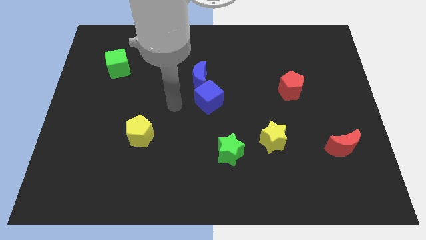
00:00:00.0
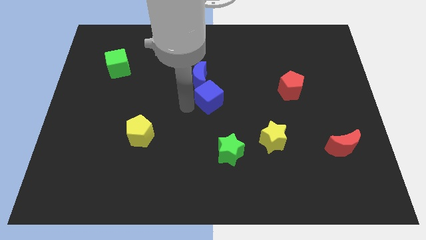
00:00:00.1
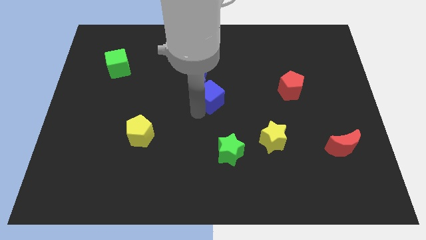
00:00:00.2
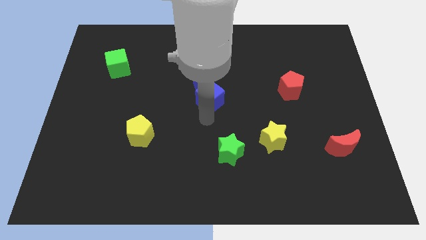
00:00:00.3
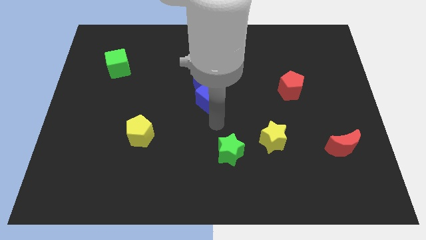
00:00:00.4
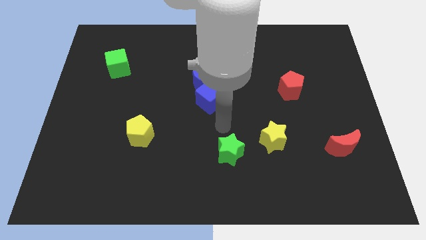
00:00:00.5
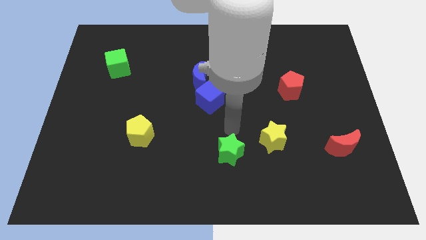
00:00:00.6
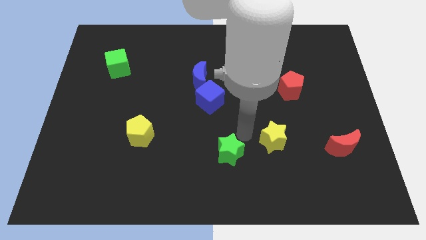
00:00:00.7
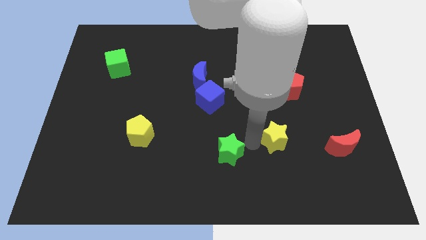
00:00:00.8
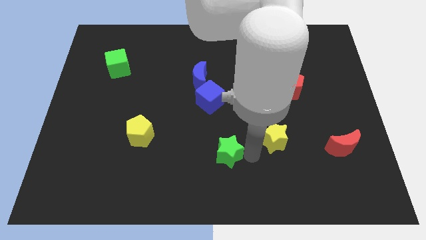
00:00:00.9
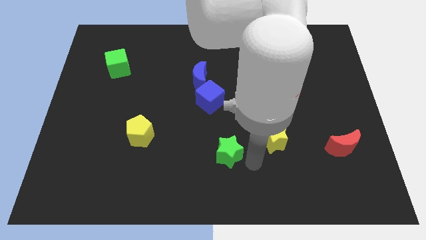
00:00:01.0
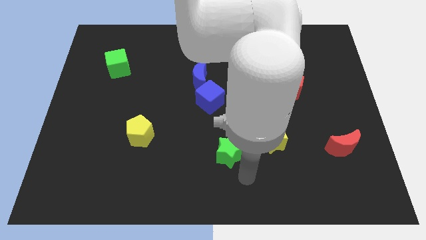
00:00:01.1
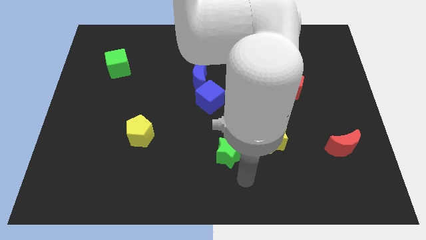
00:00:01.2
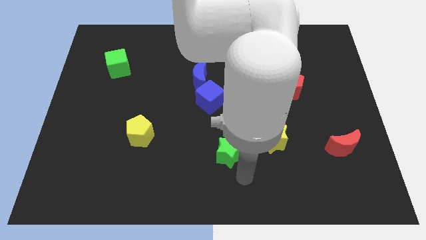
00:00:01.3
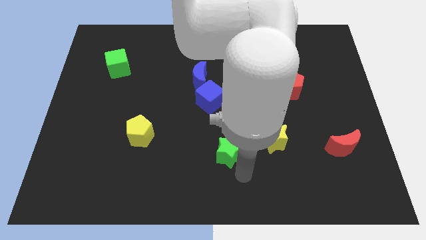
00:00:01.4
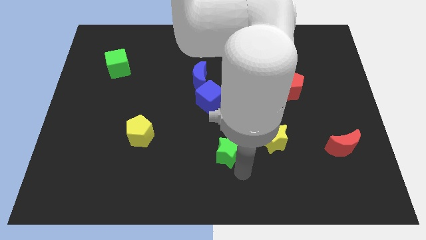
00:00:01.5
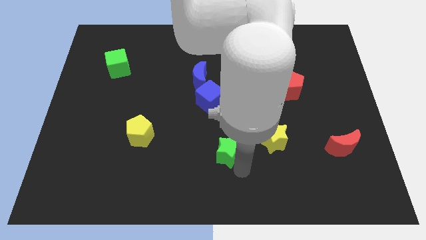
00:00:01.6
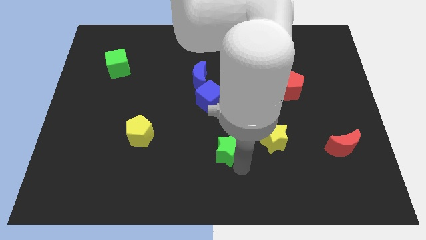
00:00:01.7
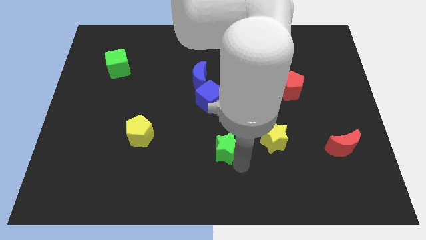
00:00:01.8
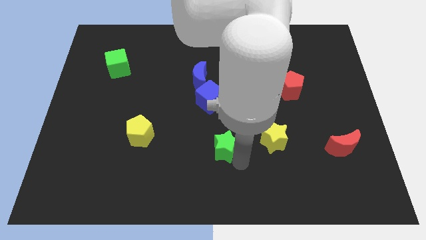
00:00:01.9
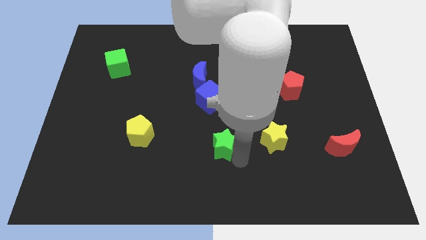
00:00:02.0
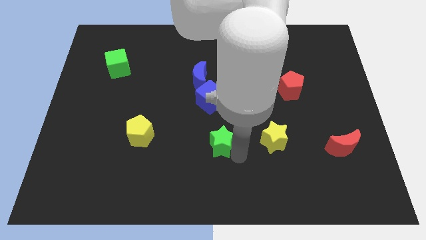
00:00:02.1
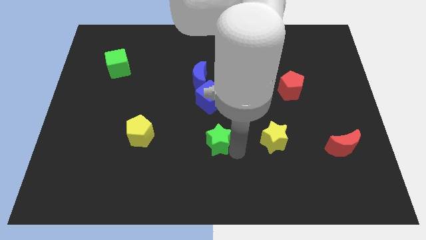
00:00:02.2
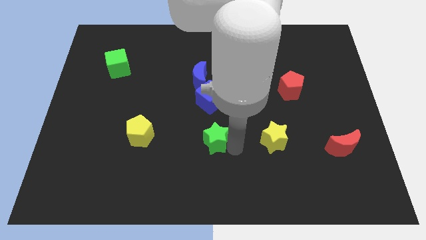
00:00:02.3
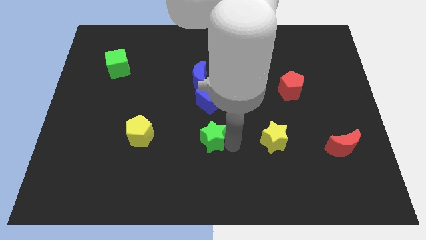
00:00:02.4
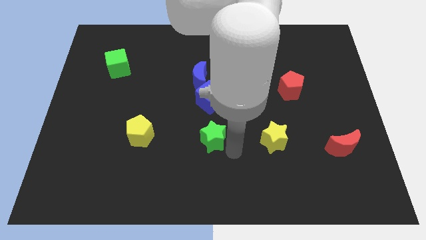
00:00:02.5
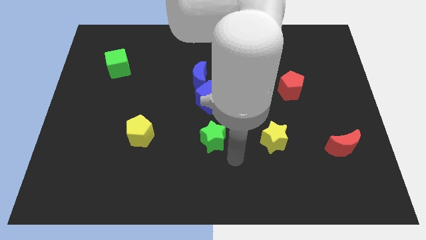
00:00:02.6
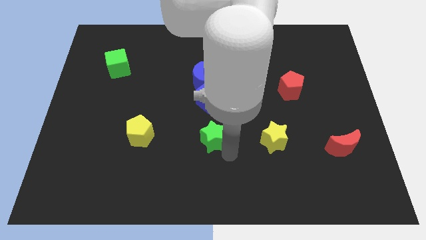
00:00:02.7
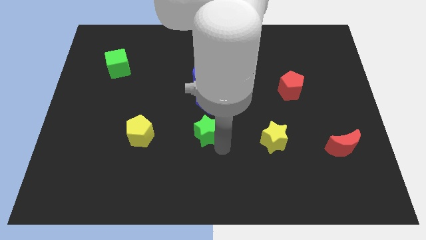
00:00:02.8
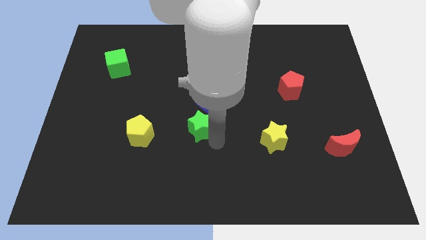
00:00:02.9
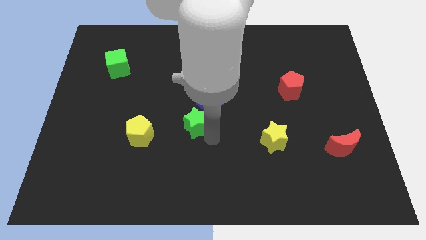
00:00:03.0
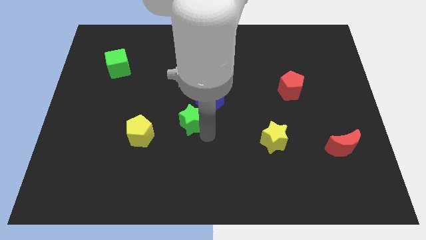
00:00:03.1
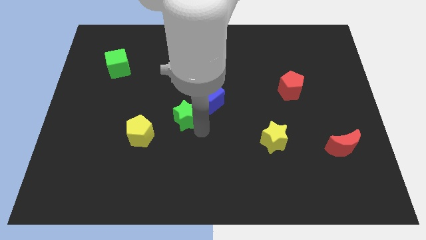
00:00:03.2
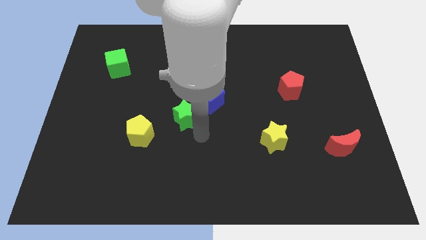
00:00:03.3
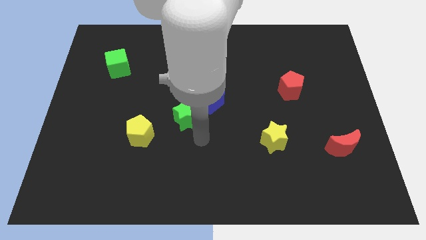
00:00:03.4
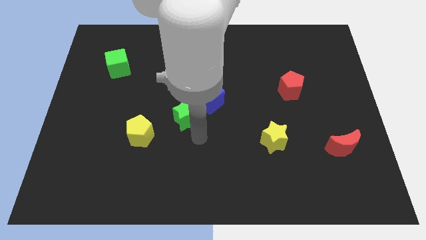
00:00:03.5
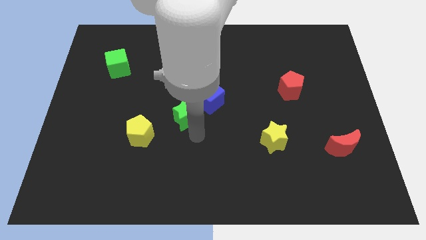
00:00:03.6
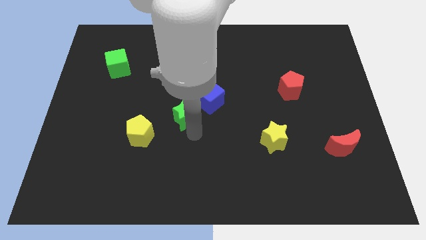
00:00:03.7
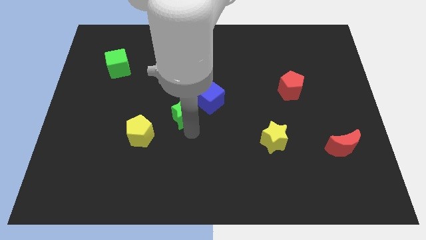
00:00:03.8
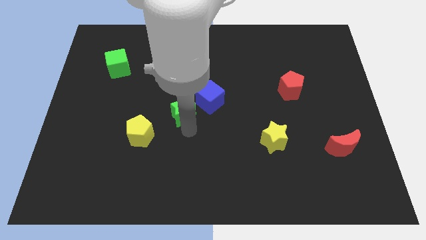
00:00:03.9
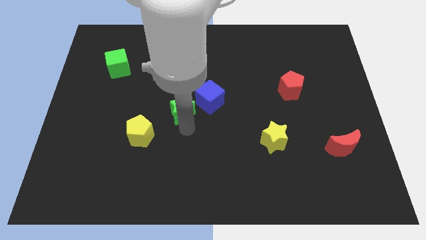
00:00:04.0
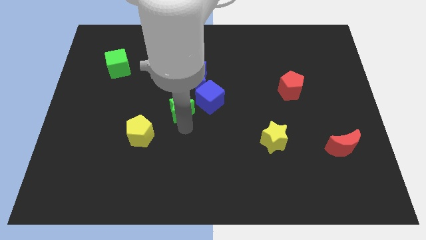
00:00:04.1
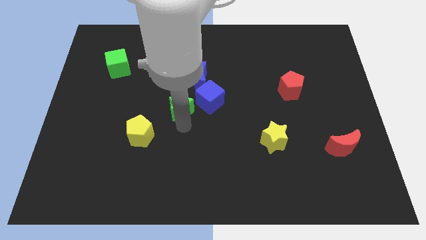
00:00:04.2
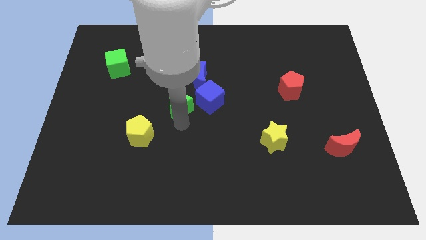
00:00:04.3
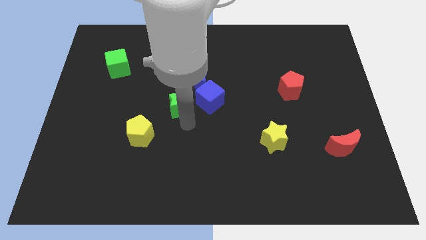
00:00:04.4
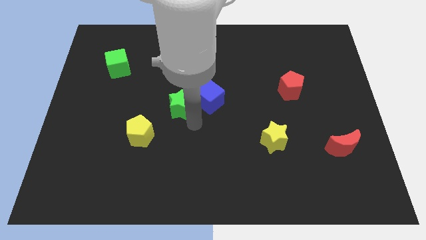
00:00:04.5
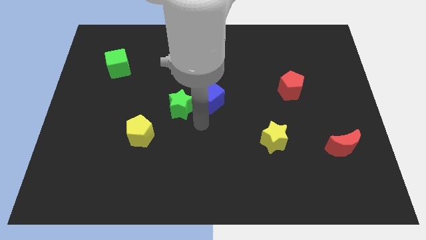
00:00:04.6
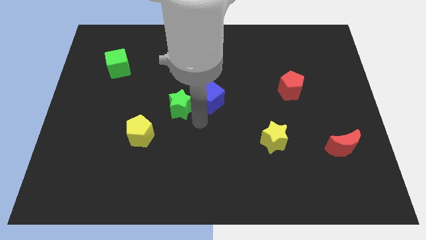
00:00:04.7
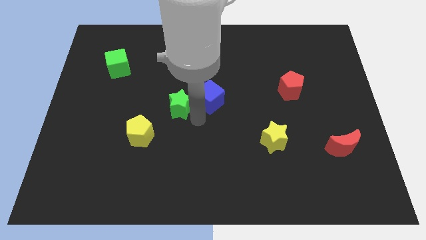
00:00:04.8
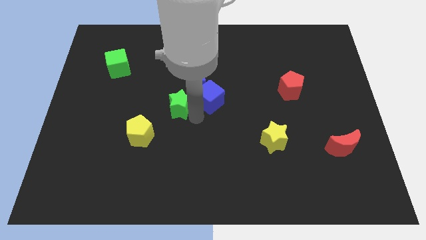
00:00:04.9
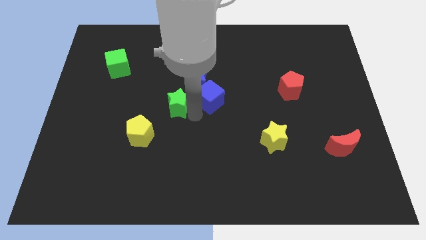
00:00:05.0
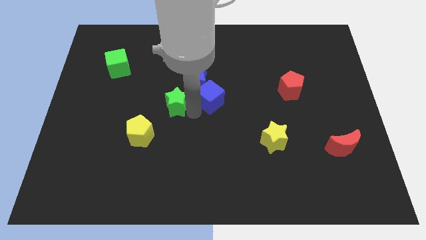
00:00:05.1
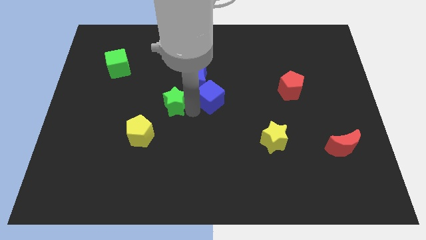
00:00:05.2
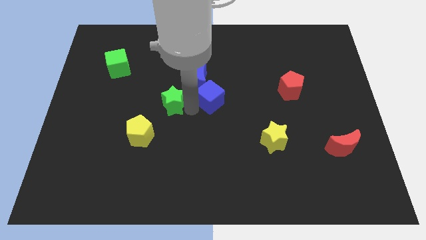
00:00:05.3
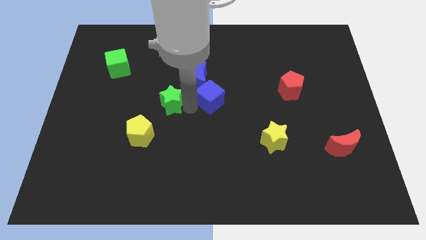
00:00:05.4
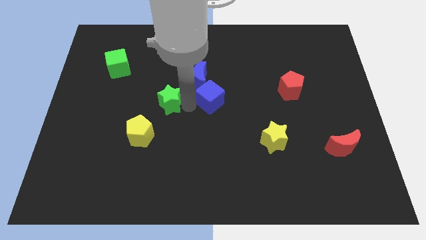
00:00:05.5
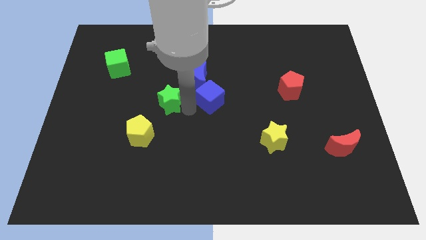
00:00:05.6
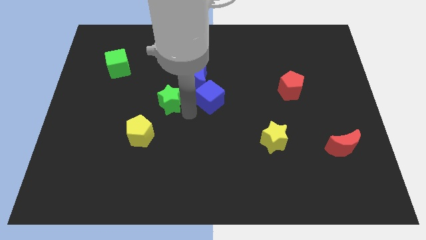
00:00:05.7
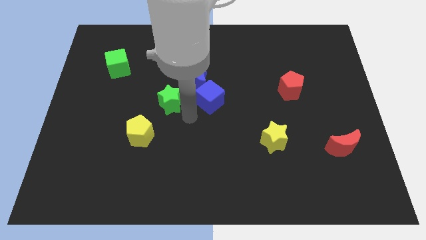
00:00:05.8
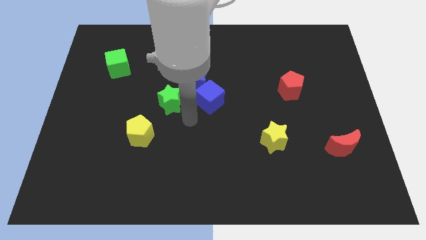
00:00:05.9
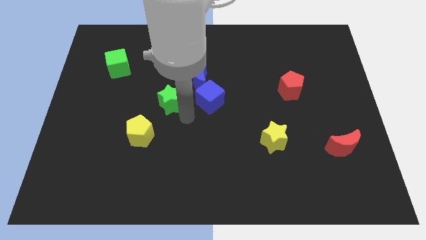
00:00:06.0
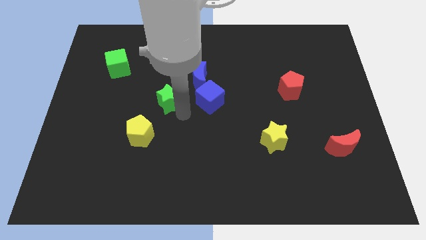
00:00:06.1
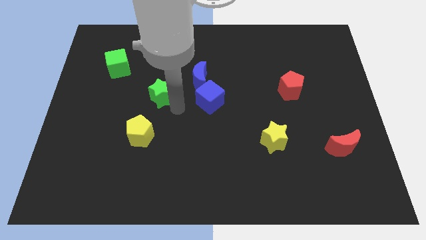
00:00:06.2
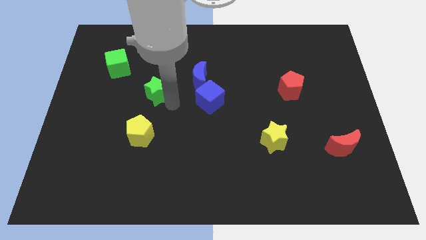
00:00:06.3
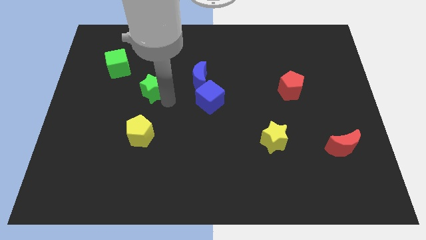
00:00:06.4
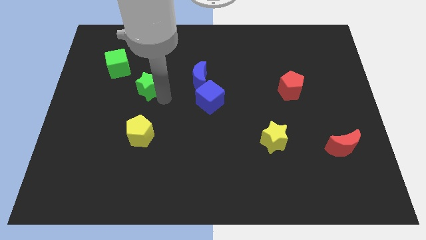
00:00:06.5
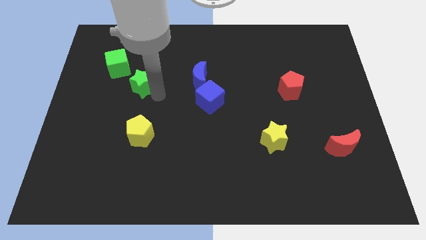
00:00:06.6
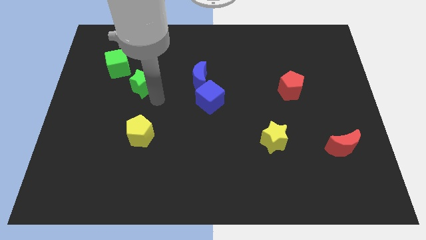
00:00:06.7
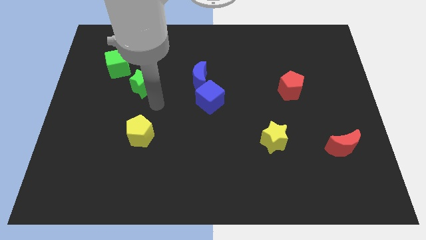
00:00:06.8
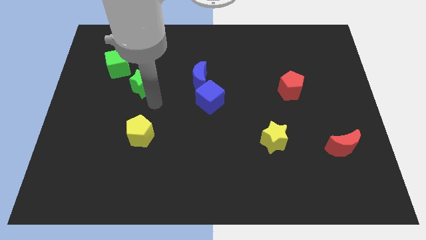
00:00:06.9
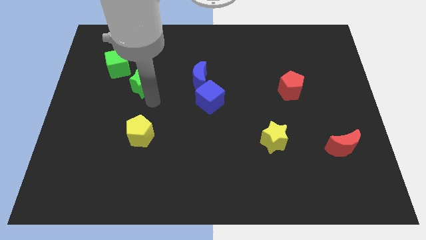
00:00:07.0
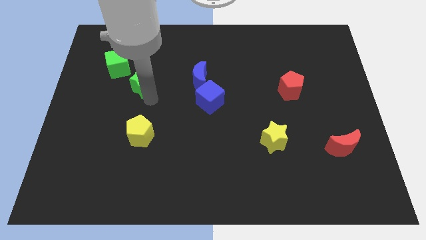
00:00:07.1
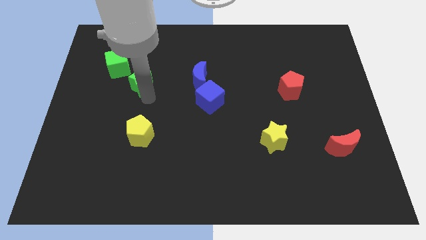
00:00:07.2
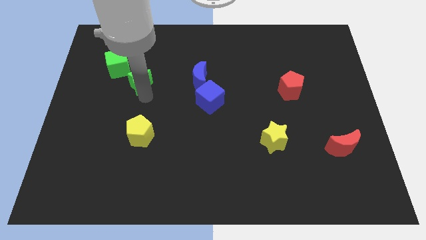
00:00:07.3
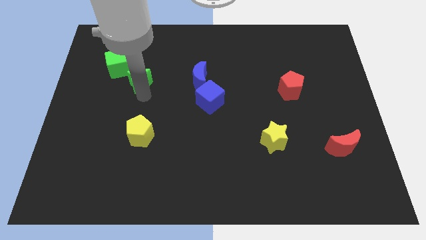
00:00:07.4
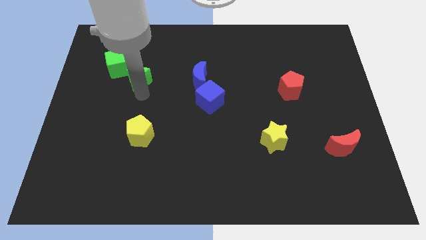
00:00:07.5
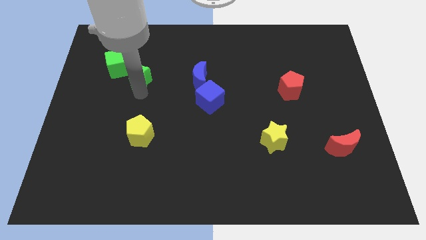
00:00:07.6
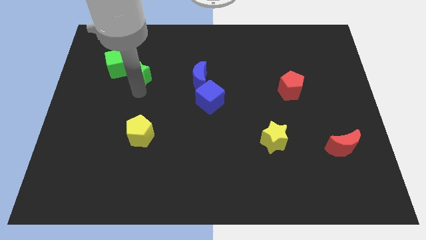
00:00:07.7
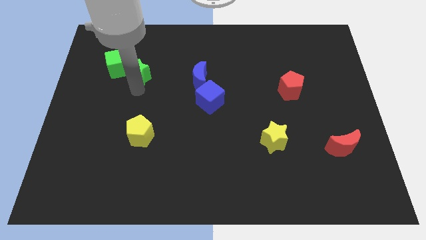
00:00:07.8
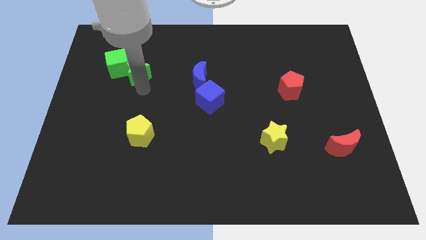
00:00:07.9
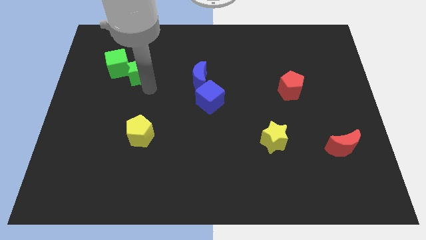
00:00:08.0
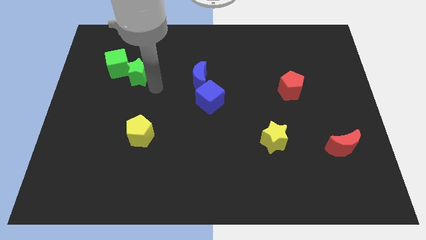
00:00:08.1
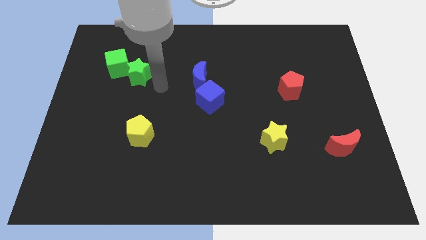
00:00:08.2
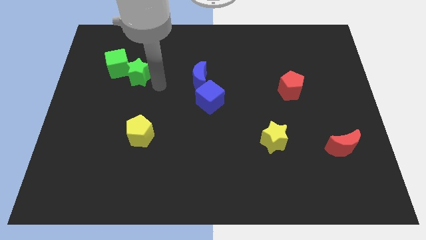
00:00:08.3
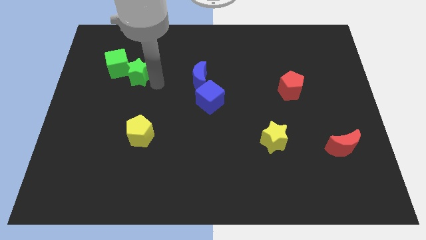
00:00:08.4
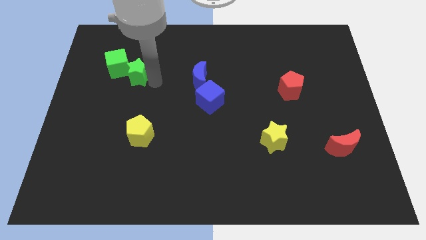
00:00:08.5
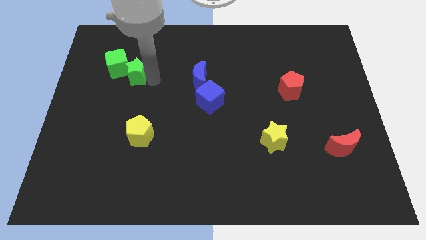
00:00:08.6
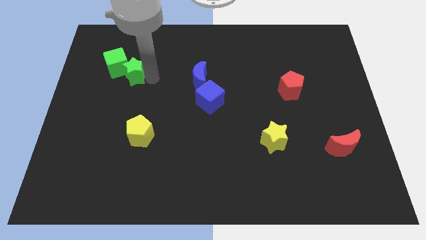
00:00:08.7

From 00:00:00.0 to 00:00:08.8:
move the green star towards the green cube
